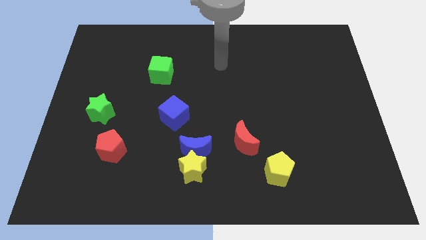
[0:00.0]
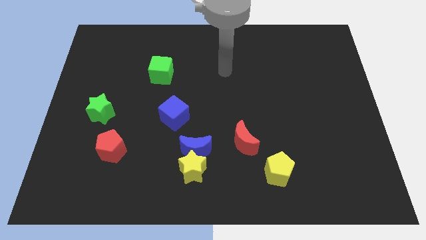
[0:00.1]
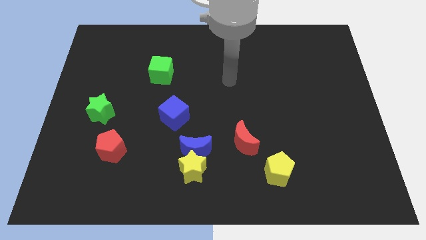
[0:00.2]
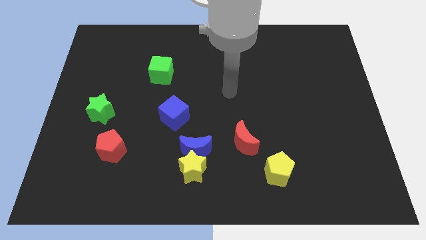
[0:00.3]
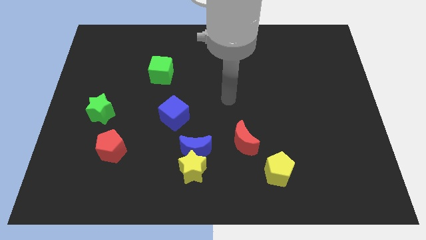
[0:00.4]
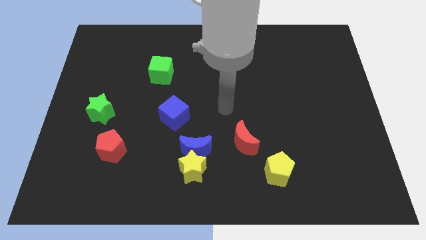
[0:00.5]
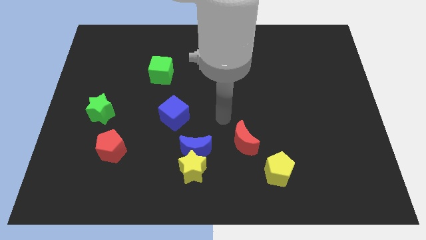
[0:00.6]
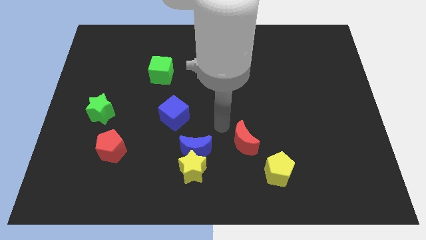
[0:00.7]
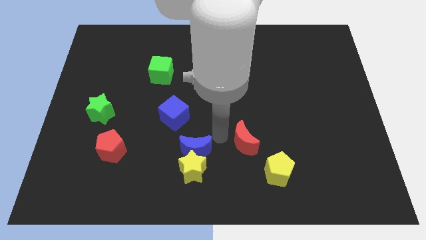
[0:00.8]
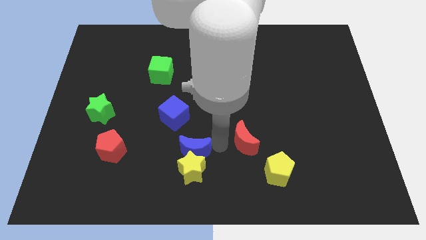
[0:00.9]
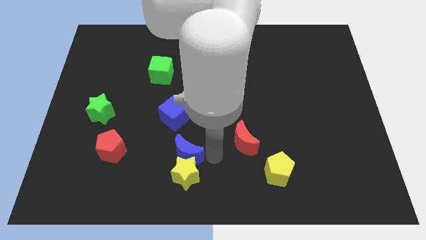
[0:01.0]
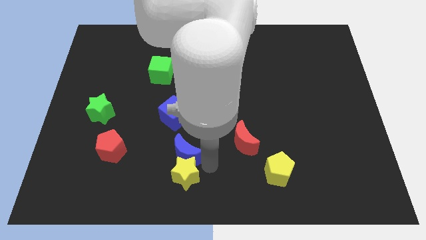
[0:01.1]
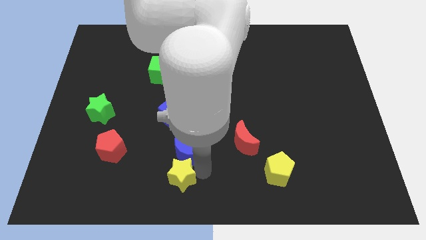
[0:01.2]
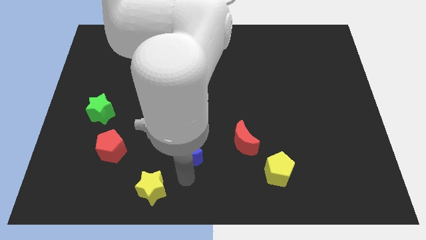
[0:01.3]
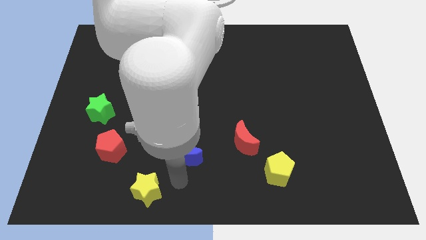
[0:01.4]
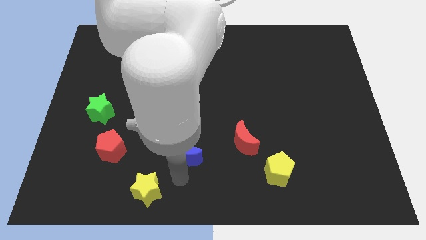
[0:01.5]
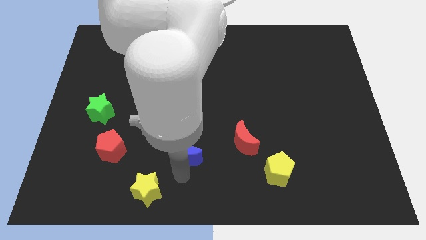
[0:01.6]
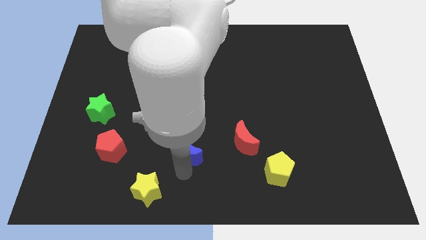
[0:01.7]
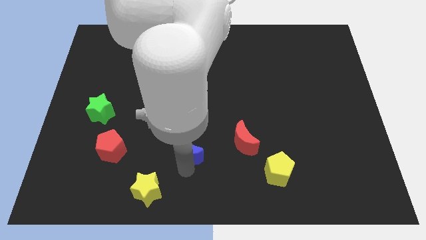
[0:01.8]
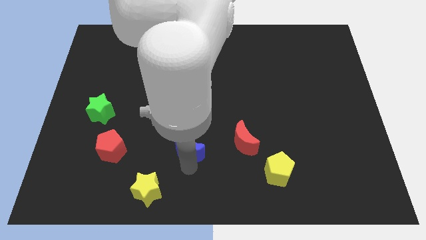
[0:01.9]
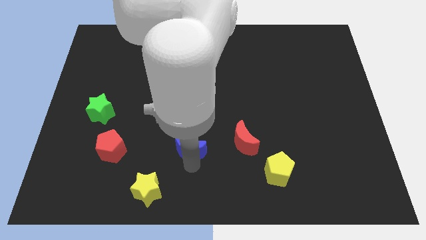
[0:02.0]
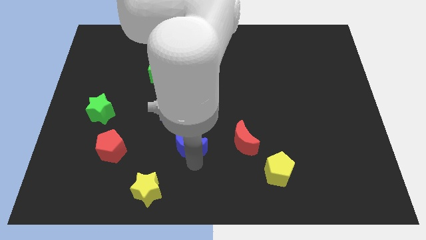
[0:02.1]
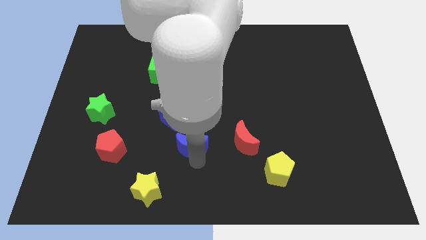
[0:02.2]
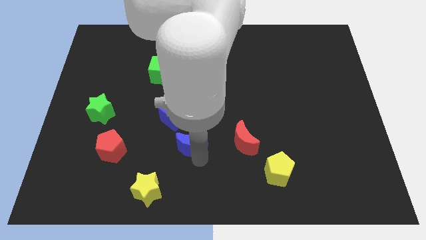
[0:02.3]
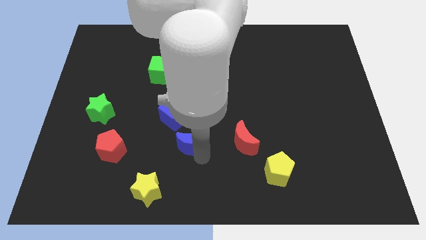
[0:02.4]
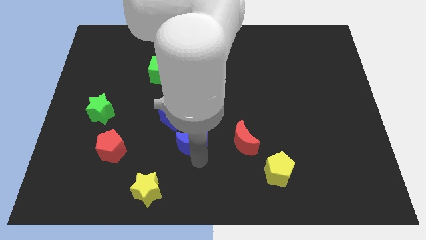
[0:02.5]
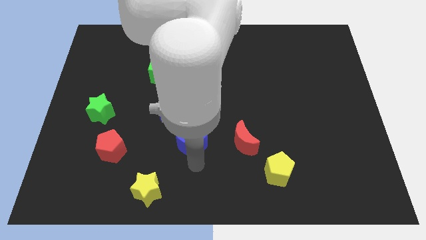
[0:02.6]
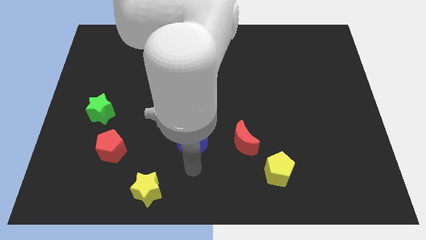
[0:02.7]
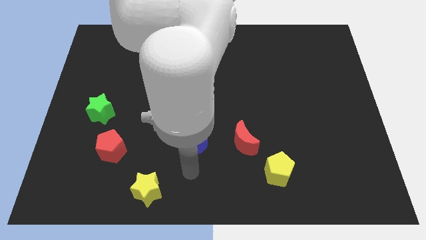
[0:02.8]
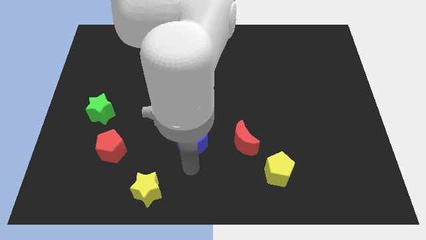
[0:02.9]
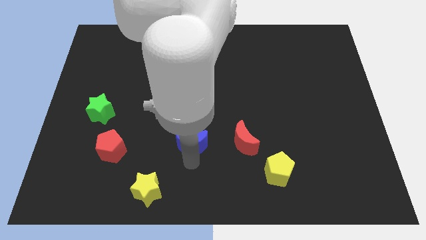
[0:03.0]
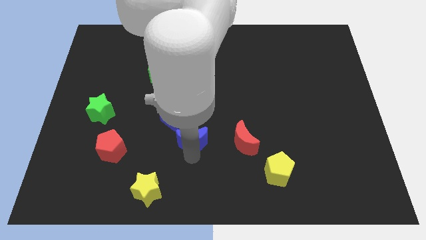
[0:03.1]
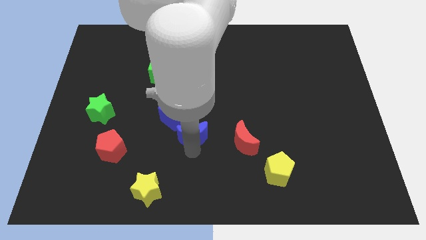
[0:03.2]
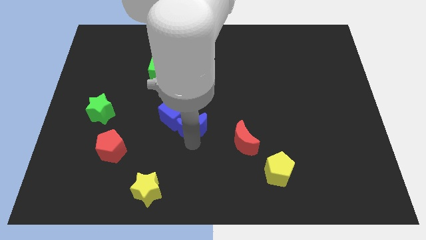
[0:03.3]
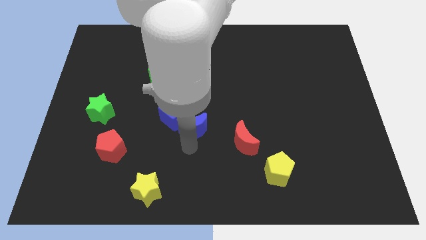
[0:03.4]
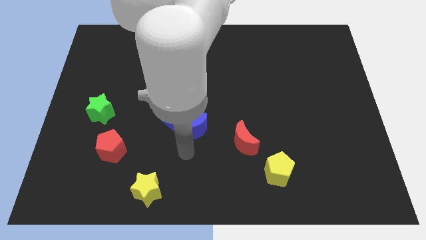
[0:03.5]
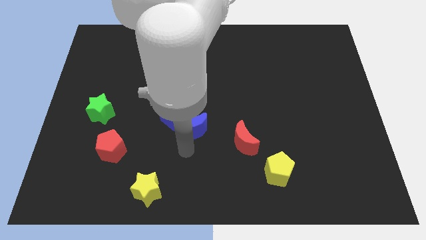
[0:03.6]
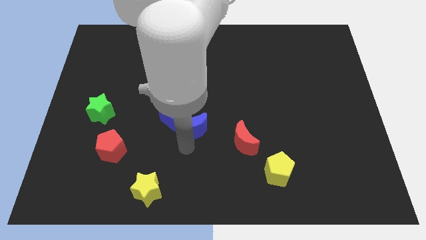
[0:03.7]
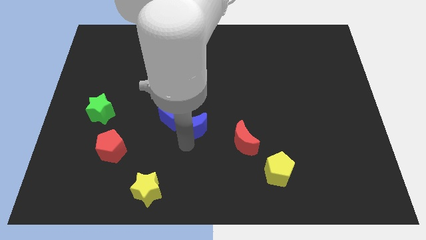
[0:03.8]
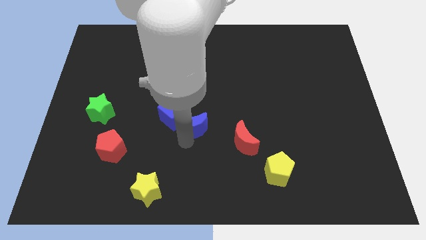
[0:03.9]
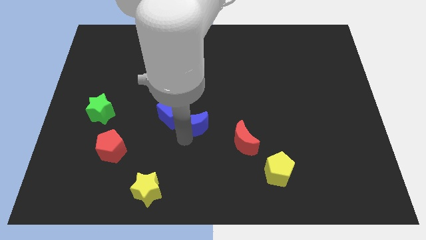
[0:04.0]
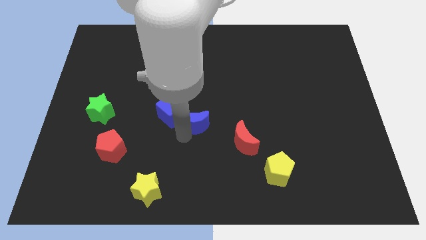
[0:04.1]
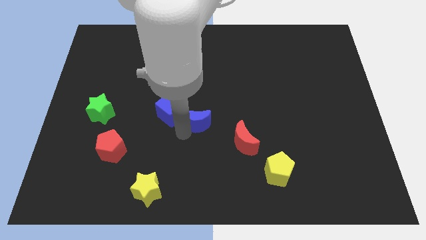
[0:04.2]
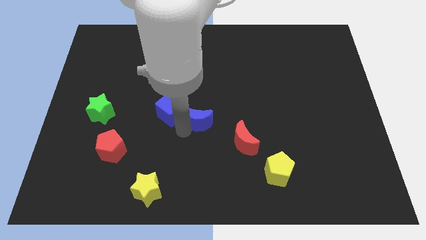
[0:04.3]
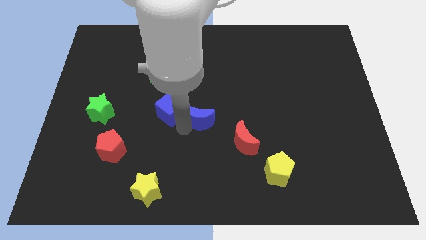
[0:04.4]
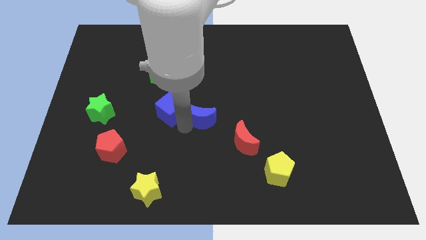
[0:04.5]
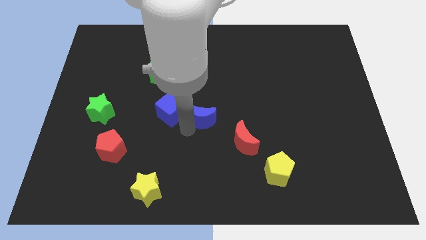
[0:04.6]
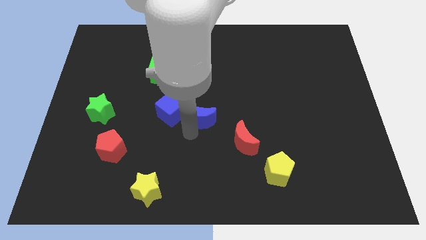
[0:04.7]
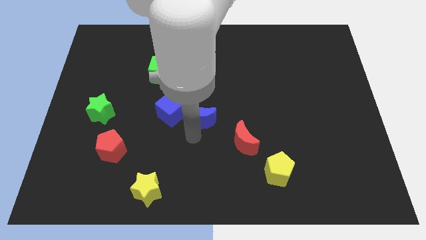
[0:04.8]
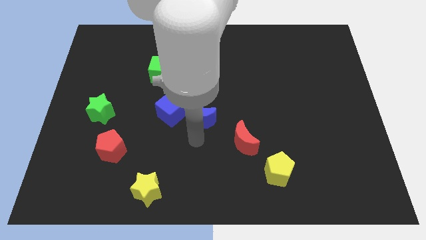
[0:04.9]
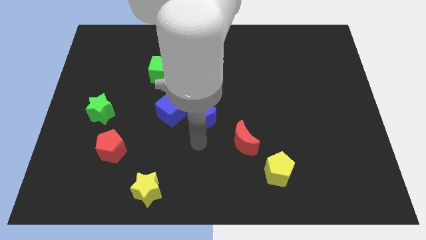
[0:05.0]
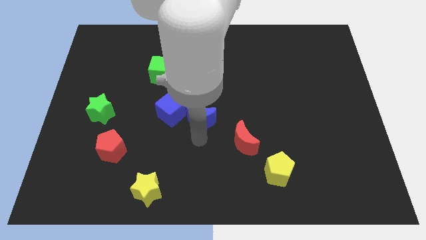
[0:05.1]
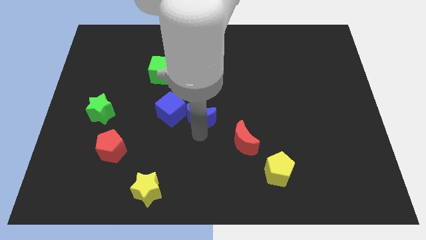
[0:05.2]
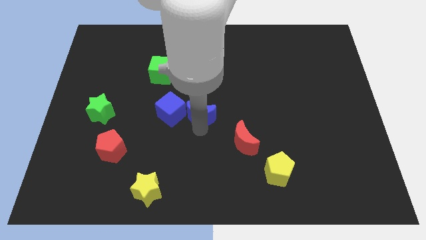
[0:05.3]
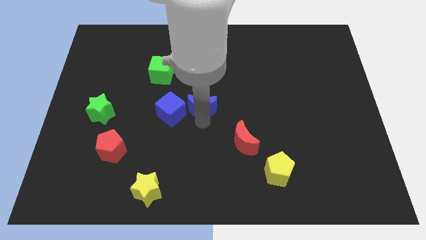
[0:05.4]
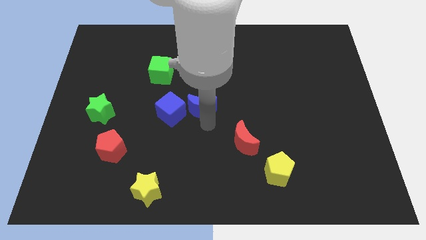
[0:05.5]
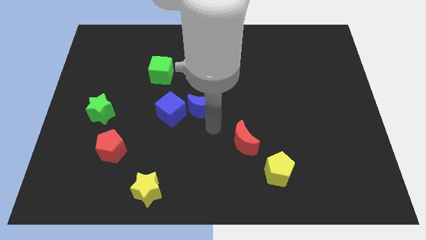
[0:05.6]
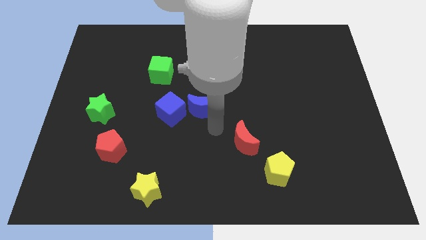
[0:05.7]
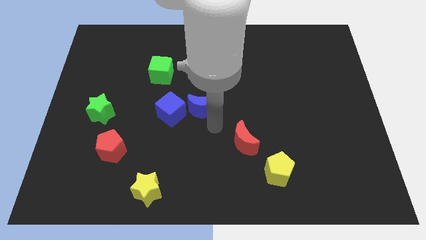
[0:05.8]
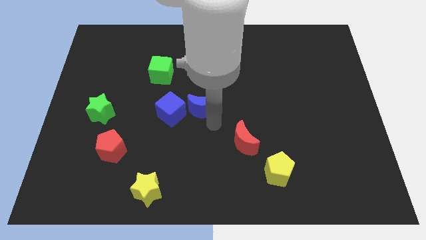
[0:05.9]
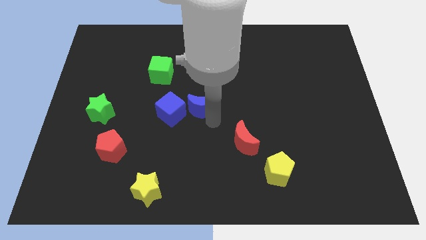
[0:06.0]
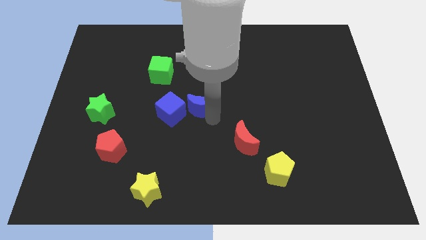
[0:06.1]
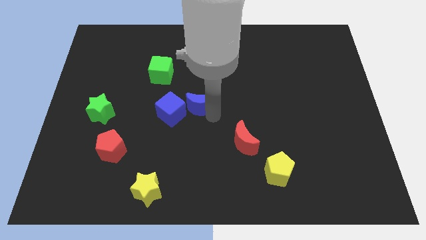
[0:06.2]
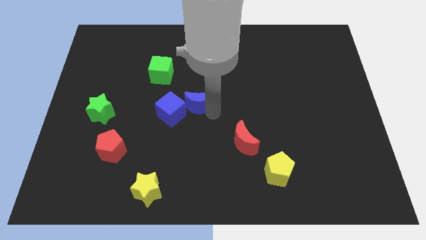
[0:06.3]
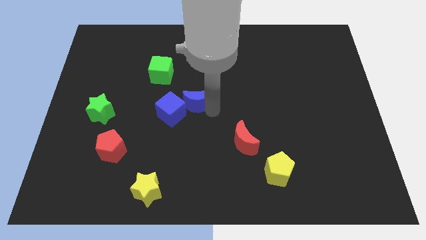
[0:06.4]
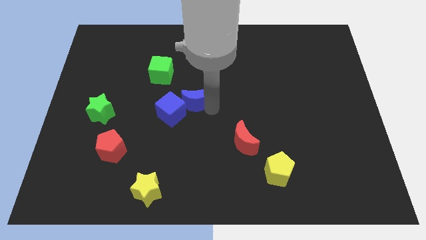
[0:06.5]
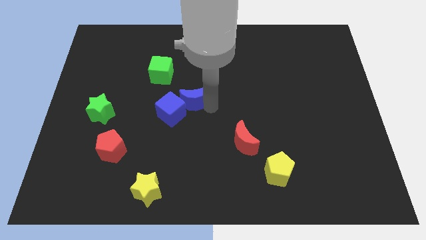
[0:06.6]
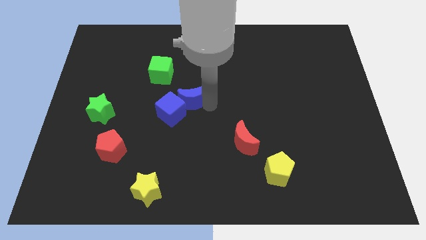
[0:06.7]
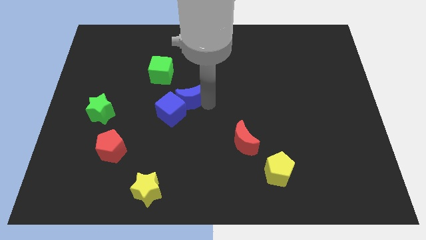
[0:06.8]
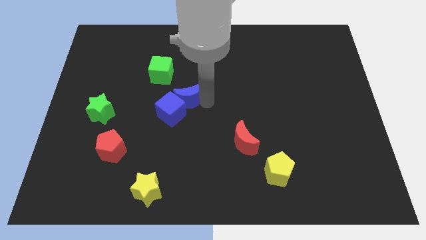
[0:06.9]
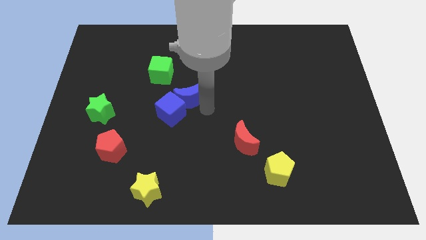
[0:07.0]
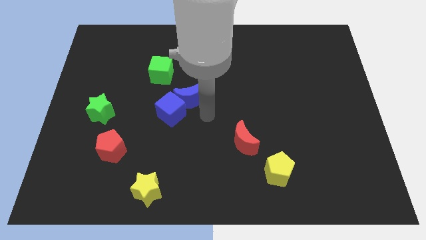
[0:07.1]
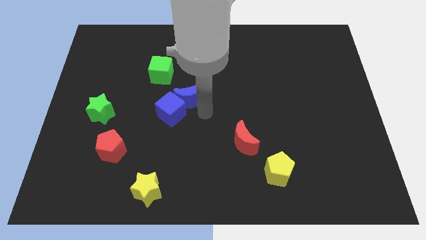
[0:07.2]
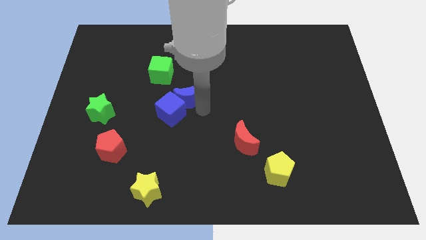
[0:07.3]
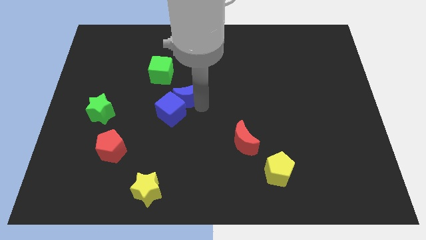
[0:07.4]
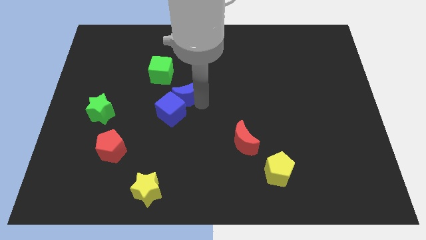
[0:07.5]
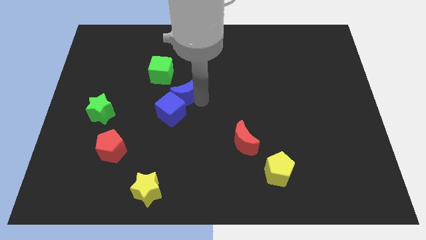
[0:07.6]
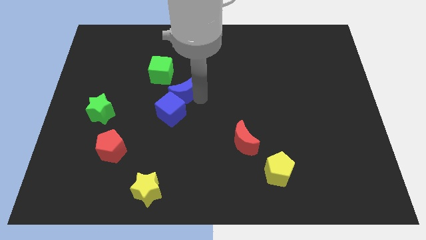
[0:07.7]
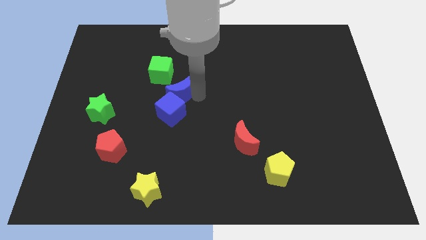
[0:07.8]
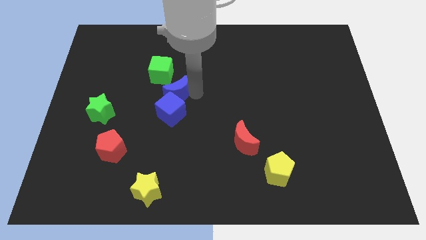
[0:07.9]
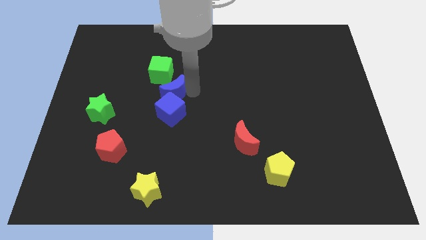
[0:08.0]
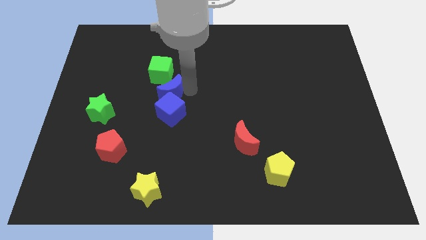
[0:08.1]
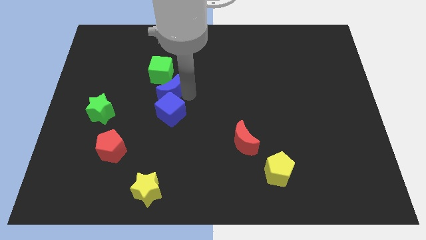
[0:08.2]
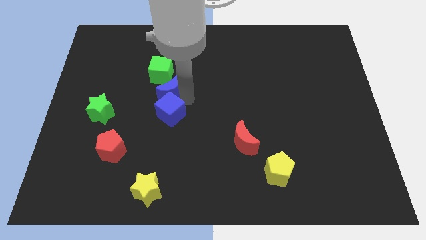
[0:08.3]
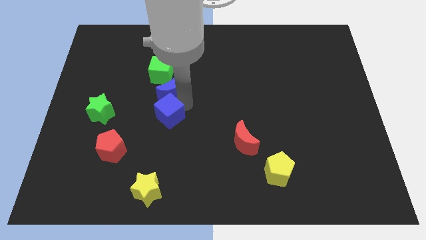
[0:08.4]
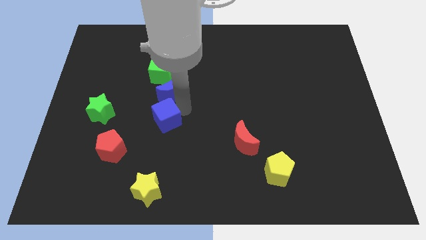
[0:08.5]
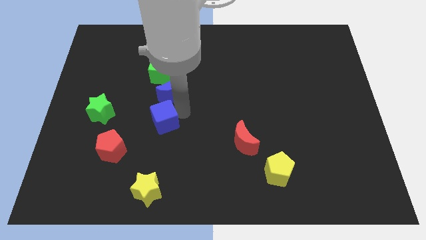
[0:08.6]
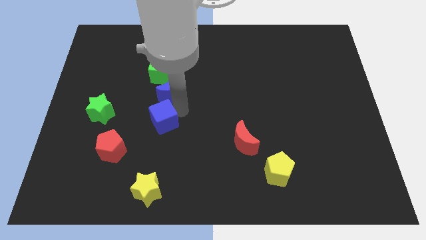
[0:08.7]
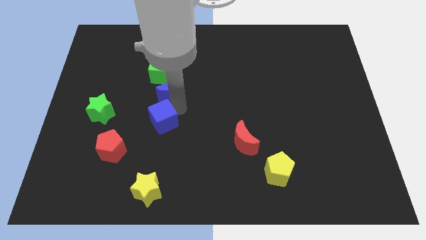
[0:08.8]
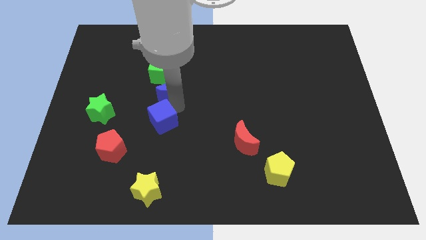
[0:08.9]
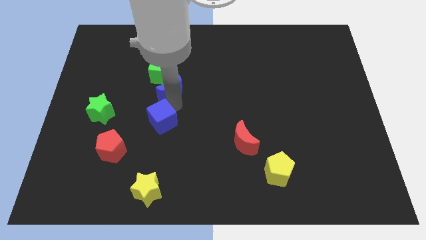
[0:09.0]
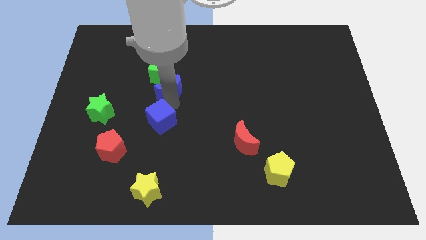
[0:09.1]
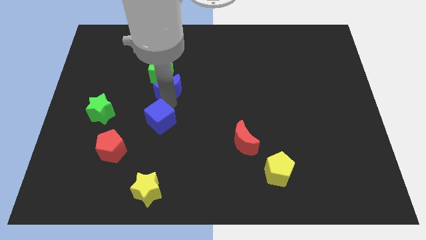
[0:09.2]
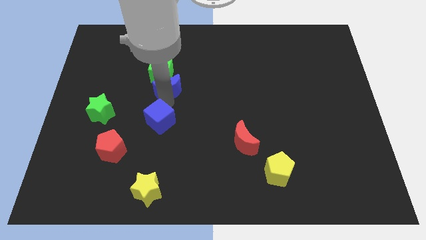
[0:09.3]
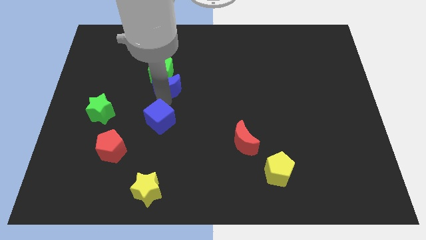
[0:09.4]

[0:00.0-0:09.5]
slide the blue moon to the green cube
